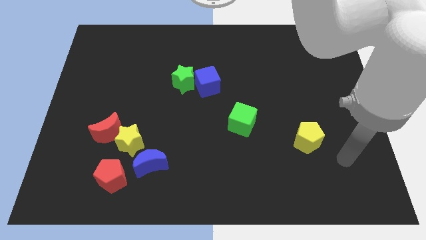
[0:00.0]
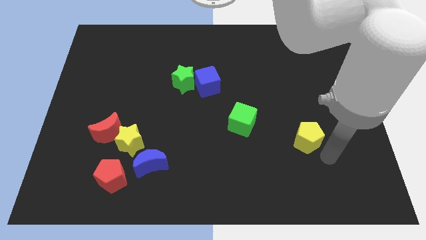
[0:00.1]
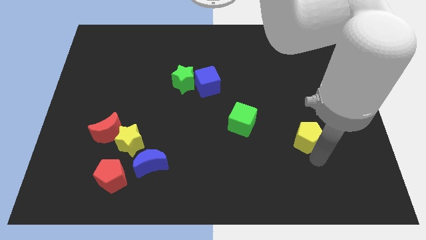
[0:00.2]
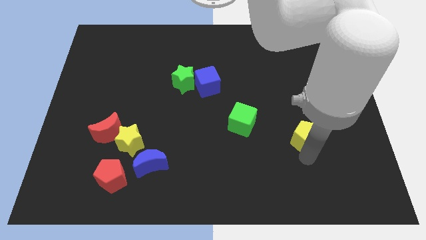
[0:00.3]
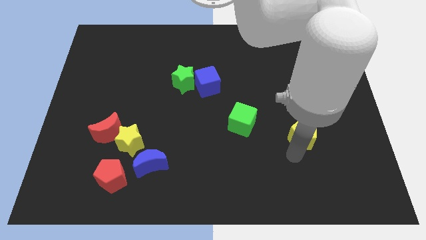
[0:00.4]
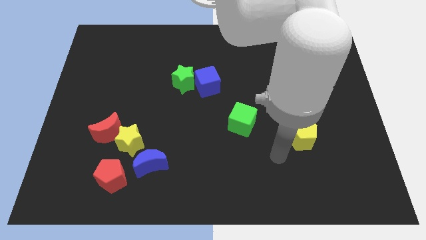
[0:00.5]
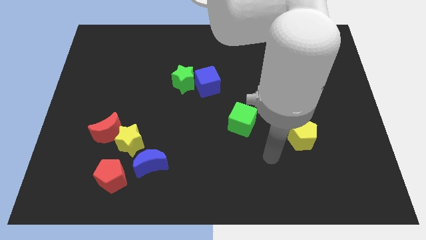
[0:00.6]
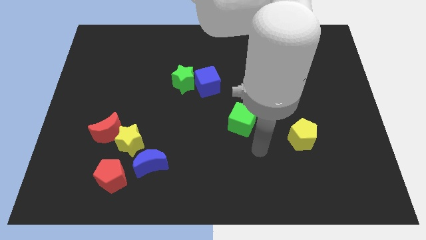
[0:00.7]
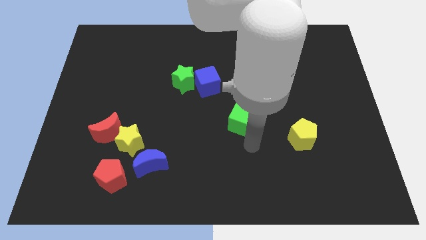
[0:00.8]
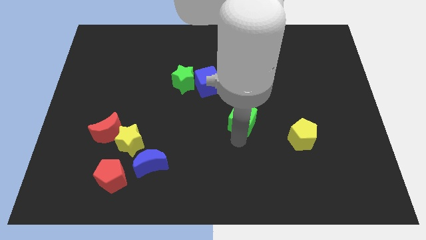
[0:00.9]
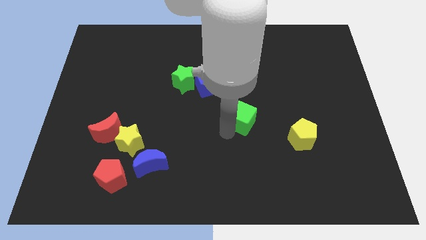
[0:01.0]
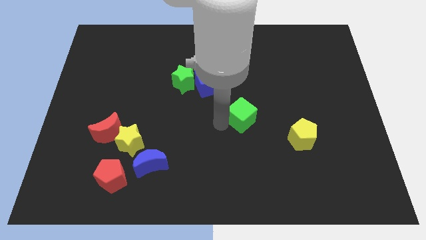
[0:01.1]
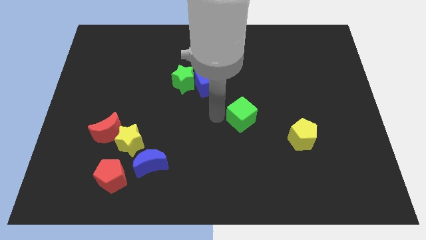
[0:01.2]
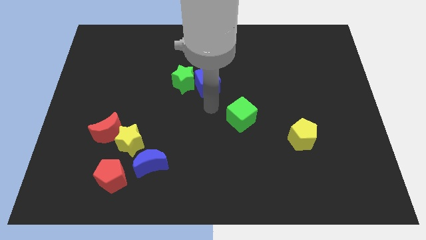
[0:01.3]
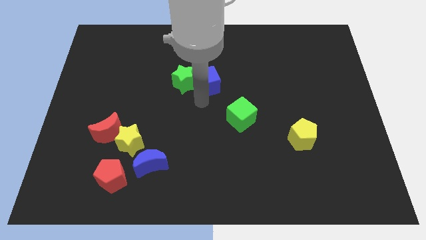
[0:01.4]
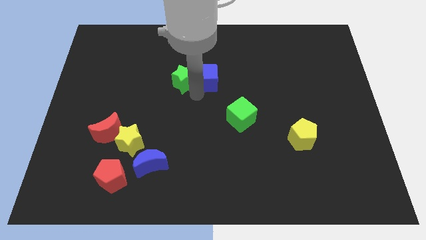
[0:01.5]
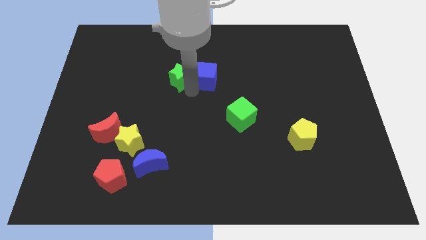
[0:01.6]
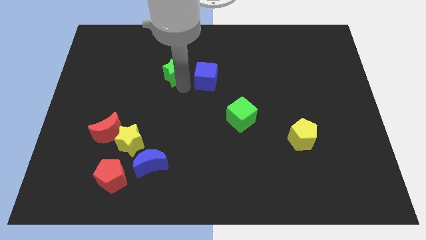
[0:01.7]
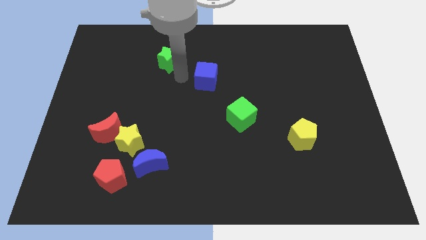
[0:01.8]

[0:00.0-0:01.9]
separate the blue cube from the green star

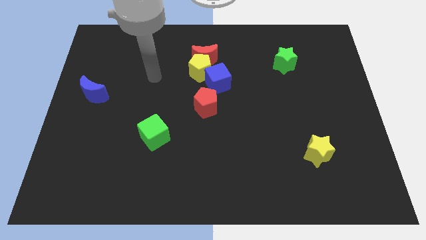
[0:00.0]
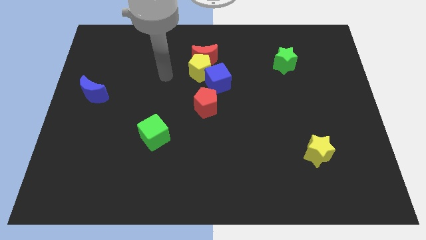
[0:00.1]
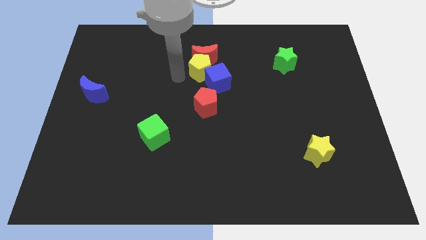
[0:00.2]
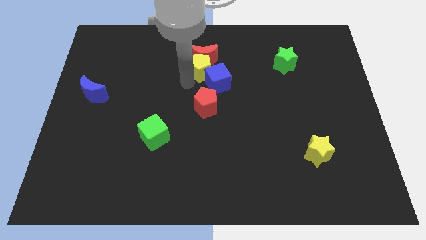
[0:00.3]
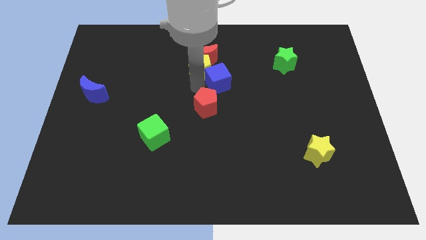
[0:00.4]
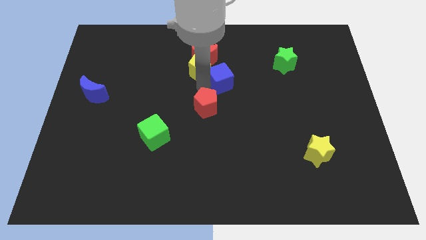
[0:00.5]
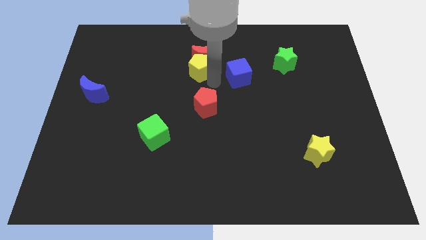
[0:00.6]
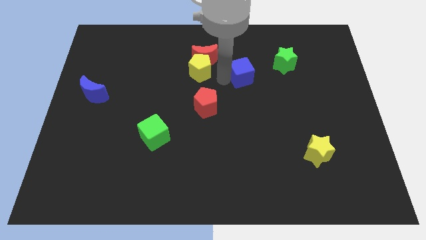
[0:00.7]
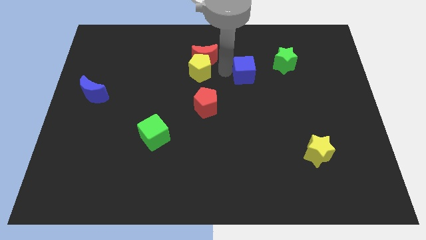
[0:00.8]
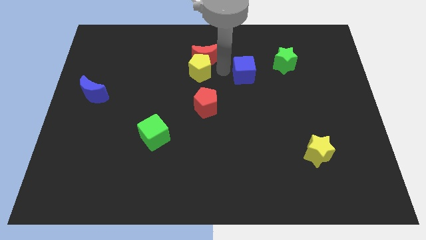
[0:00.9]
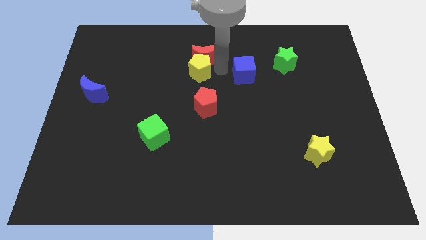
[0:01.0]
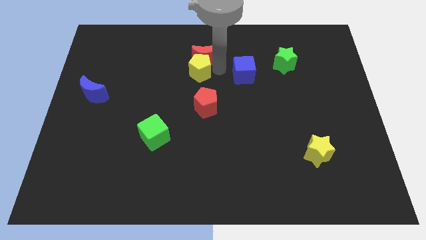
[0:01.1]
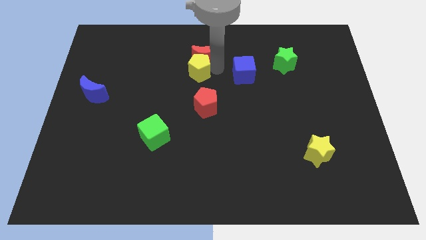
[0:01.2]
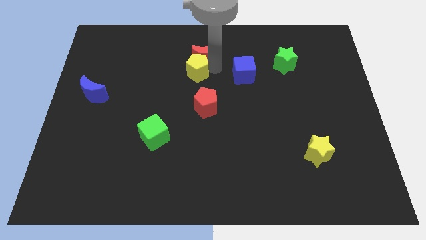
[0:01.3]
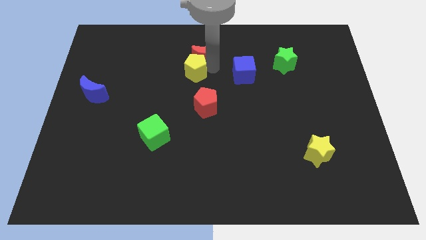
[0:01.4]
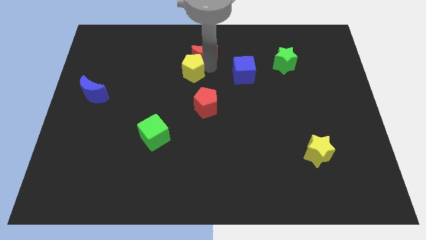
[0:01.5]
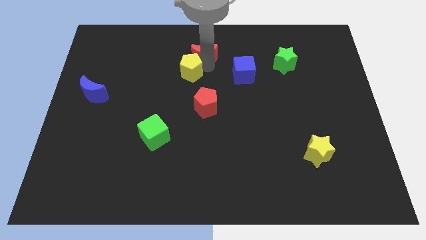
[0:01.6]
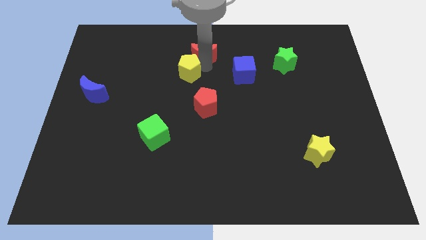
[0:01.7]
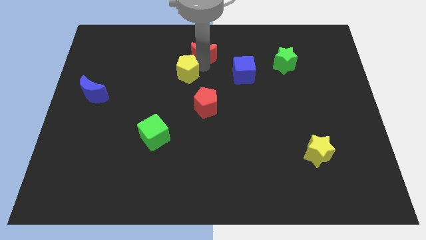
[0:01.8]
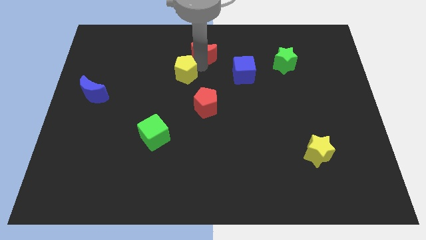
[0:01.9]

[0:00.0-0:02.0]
pull the yellow pentagon apart from the red moon and blue cube

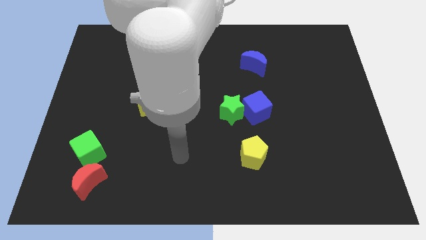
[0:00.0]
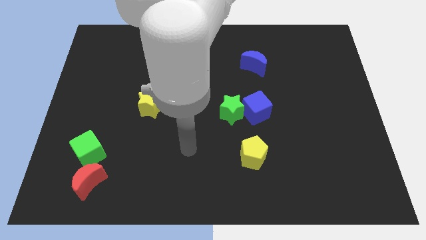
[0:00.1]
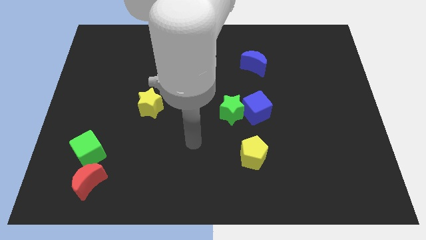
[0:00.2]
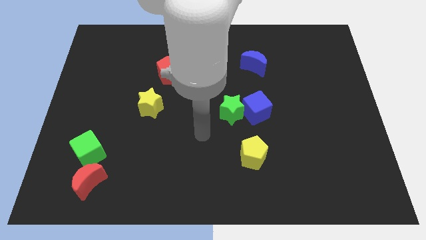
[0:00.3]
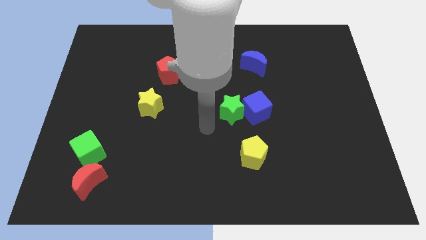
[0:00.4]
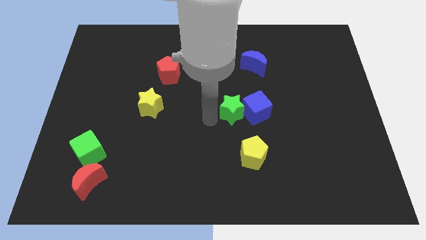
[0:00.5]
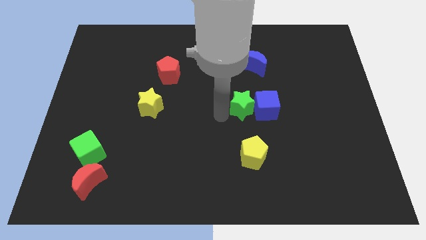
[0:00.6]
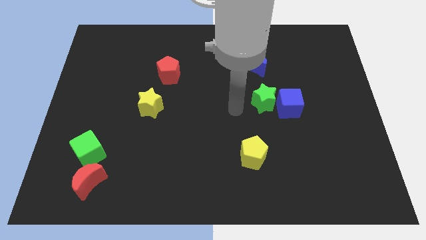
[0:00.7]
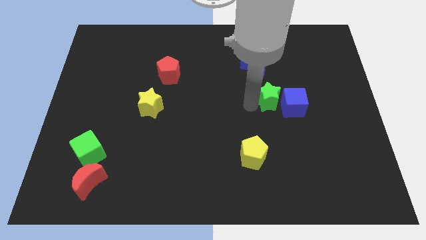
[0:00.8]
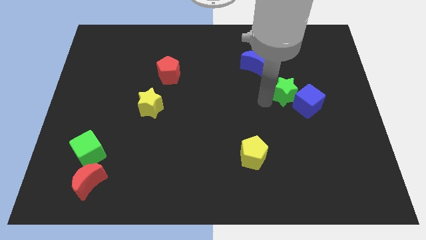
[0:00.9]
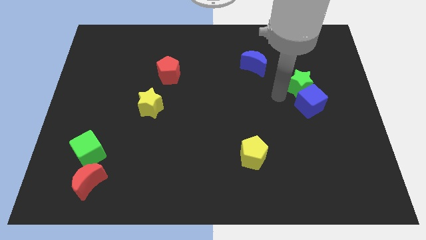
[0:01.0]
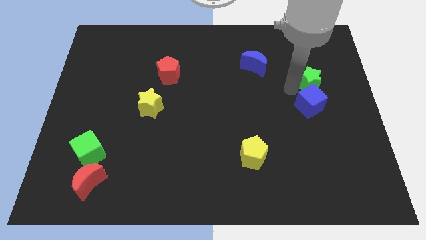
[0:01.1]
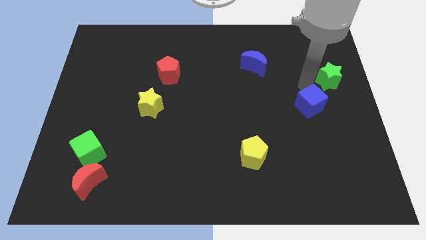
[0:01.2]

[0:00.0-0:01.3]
move the blue cube away from the green star

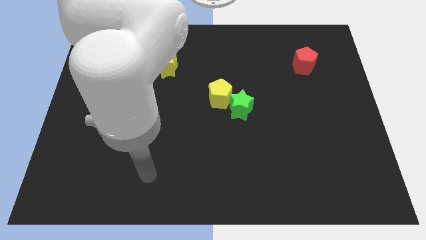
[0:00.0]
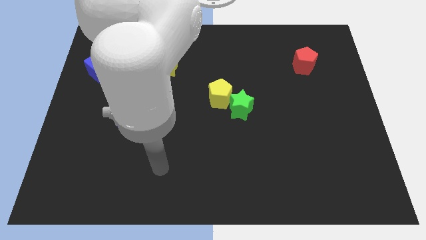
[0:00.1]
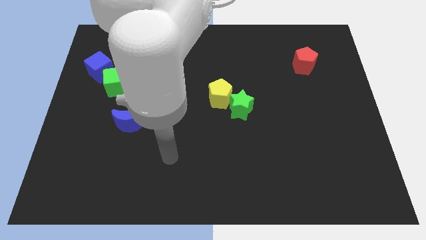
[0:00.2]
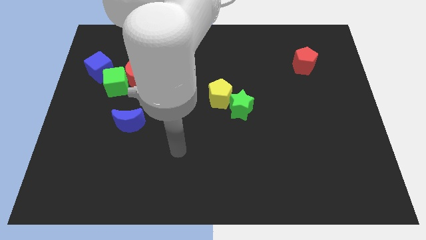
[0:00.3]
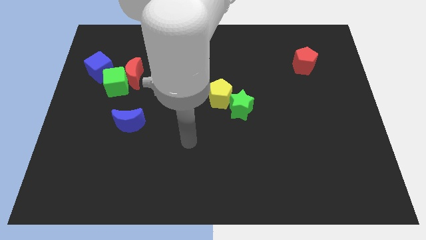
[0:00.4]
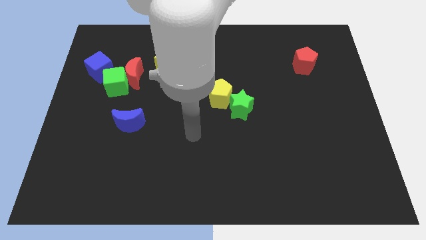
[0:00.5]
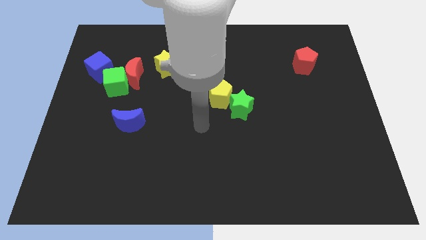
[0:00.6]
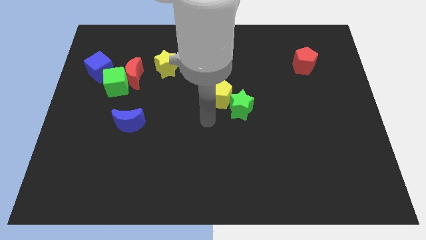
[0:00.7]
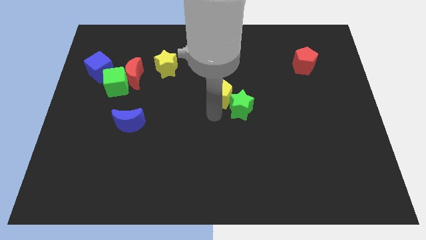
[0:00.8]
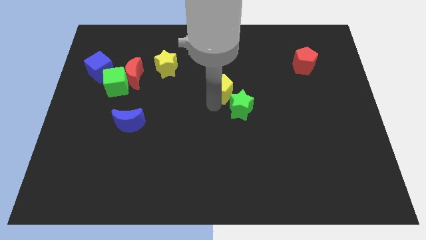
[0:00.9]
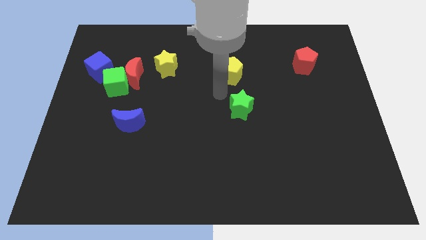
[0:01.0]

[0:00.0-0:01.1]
move the green star away from the yellow pentagon

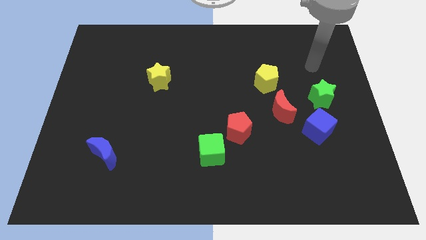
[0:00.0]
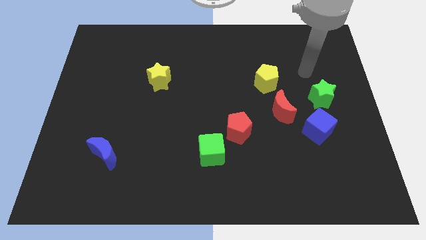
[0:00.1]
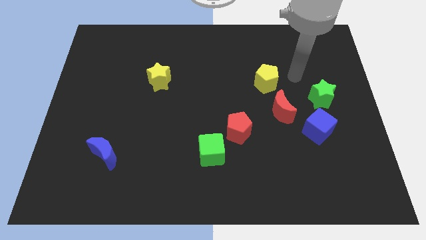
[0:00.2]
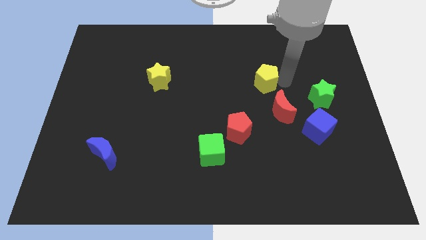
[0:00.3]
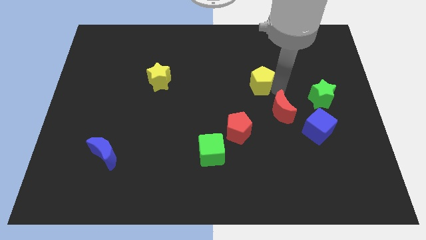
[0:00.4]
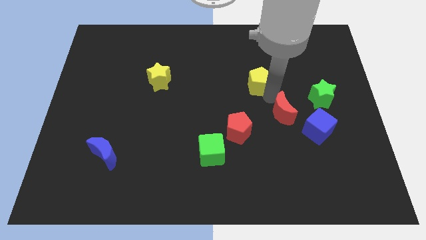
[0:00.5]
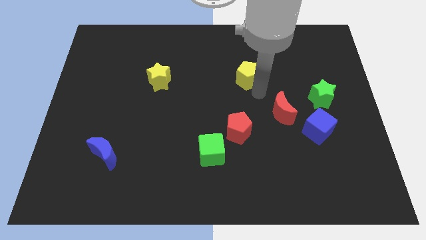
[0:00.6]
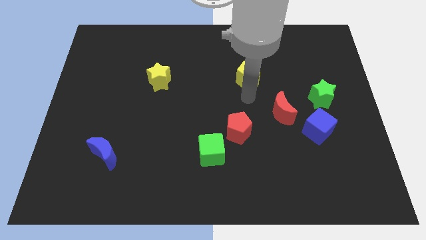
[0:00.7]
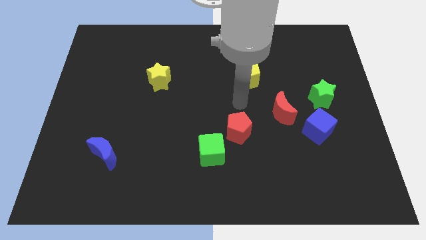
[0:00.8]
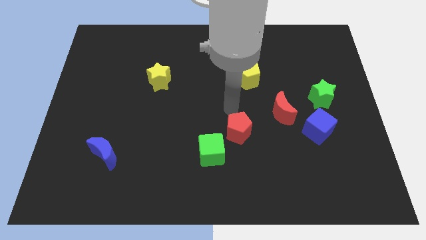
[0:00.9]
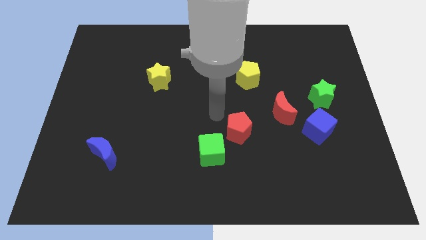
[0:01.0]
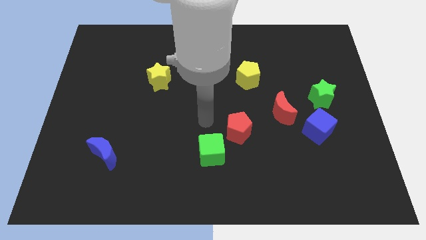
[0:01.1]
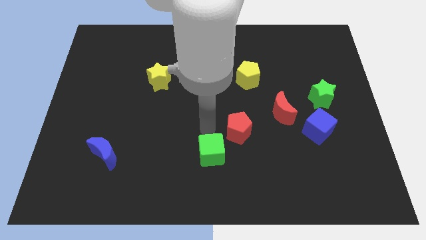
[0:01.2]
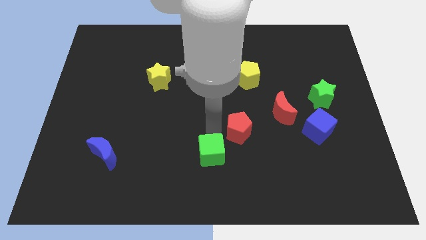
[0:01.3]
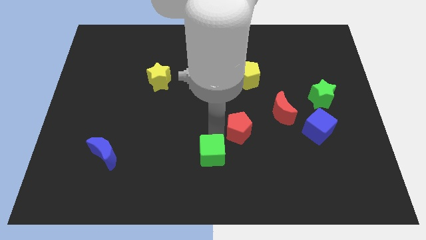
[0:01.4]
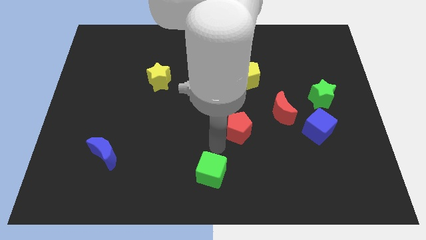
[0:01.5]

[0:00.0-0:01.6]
move the red pentagon away from the green cube

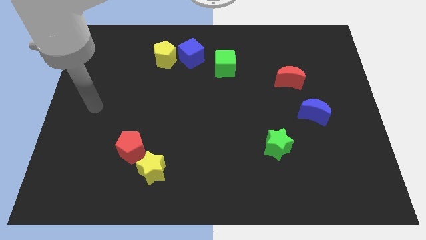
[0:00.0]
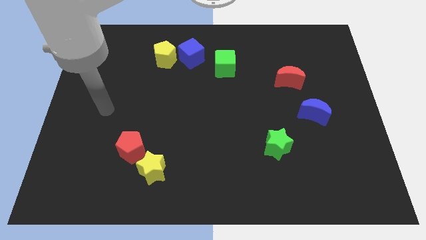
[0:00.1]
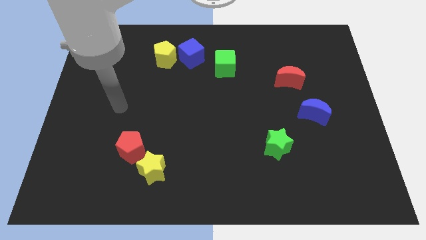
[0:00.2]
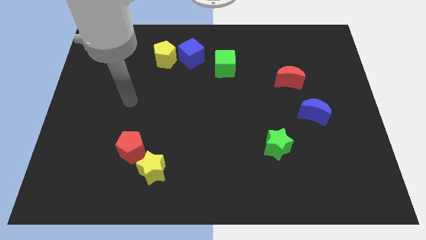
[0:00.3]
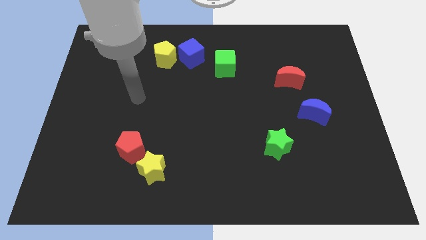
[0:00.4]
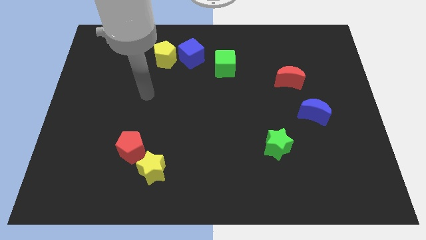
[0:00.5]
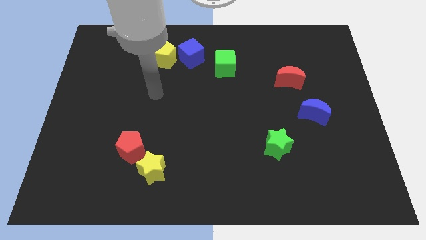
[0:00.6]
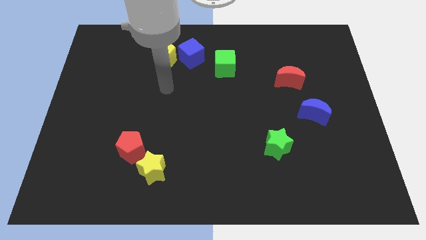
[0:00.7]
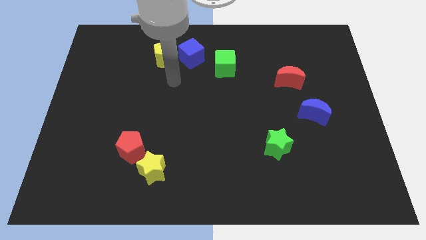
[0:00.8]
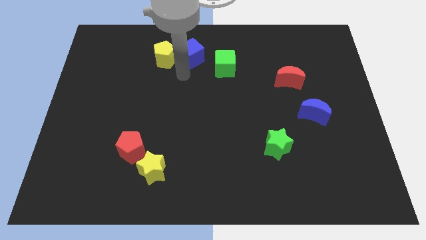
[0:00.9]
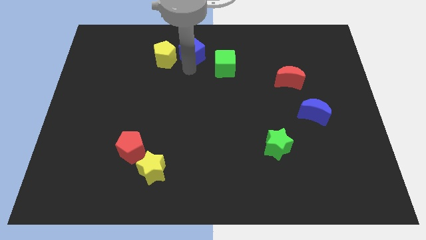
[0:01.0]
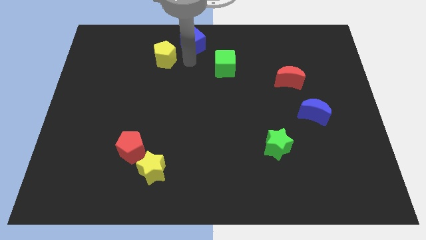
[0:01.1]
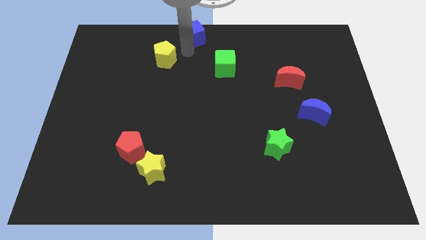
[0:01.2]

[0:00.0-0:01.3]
move the yellow pentagon away from the blue cube

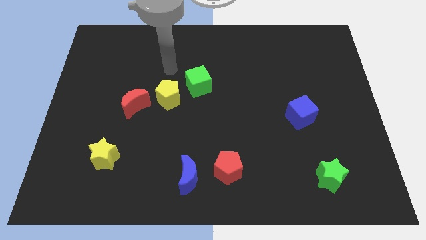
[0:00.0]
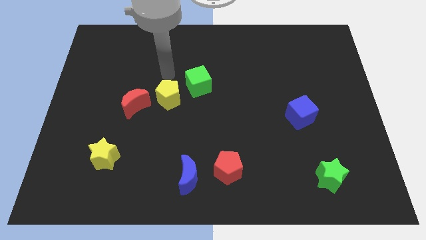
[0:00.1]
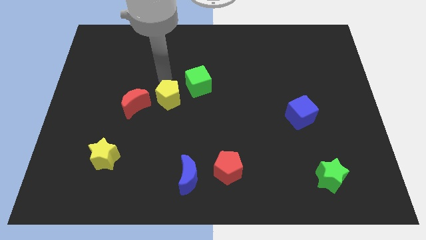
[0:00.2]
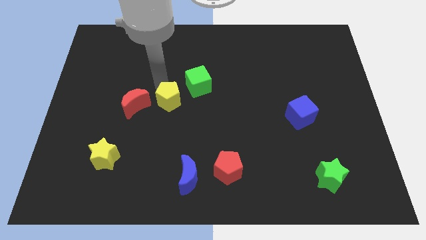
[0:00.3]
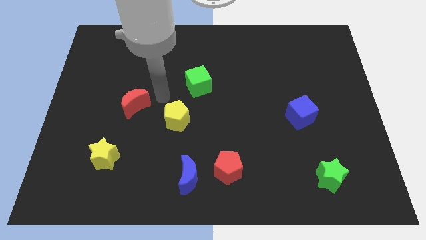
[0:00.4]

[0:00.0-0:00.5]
move the red moon away from the yellow pentagon
